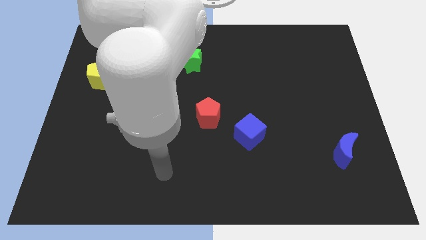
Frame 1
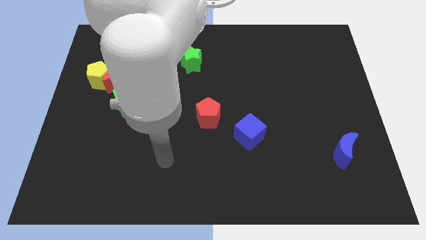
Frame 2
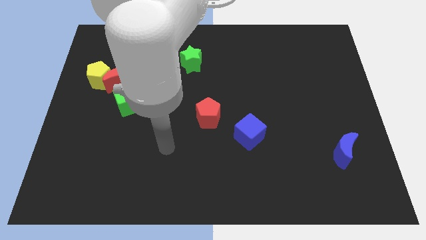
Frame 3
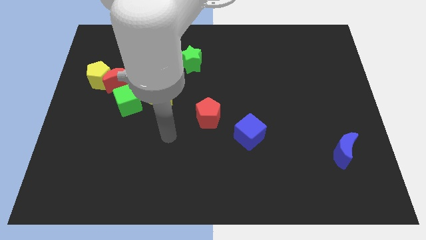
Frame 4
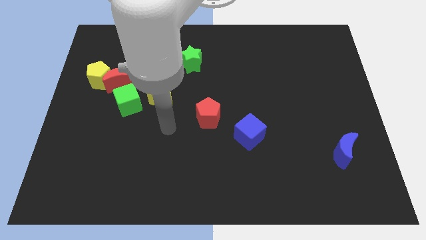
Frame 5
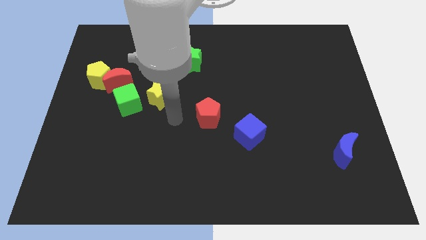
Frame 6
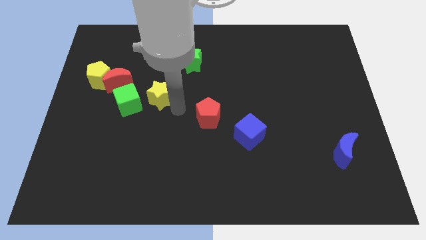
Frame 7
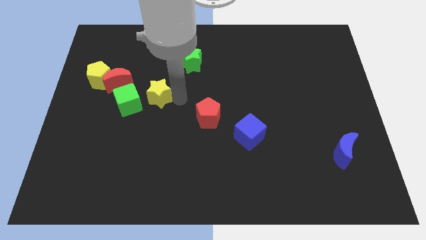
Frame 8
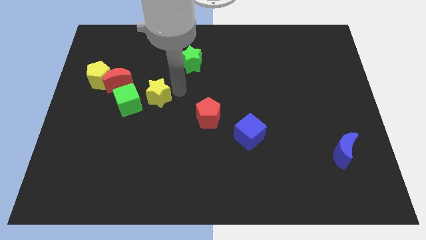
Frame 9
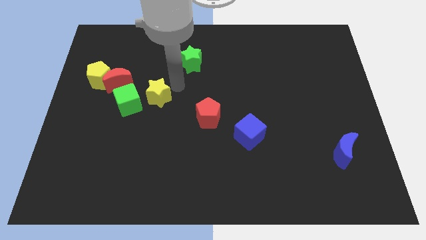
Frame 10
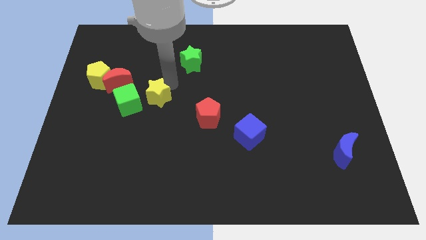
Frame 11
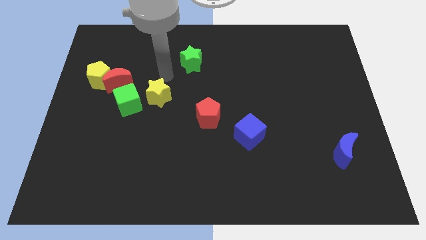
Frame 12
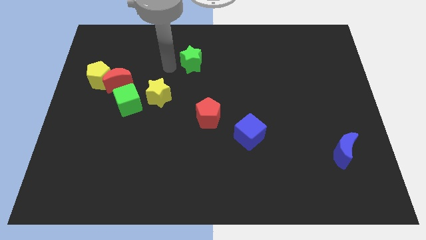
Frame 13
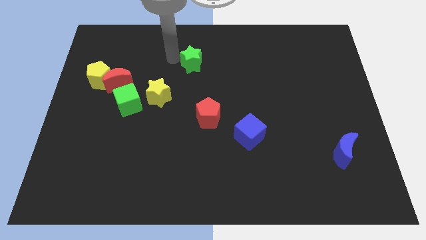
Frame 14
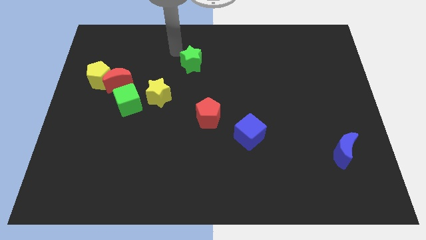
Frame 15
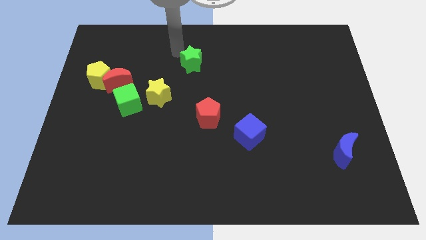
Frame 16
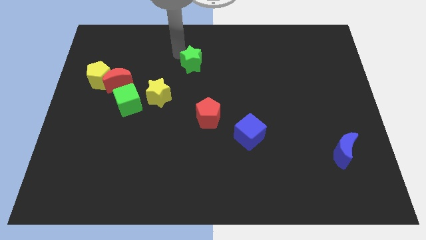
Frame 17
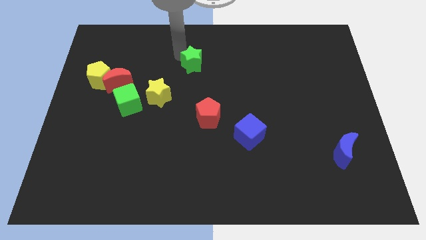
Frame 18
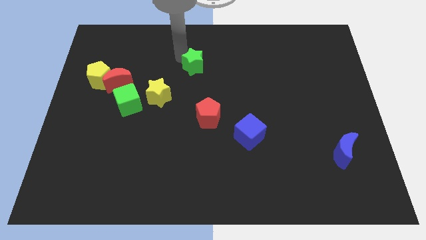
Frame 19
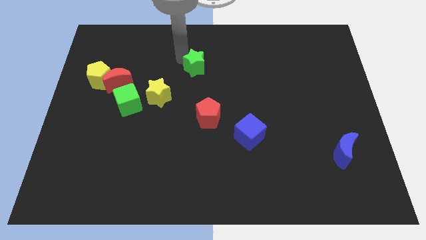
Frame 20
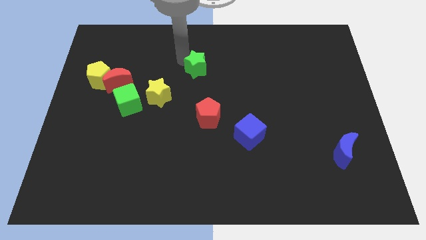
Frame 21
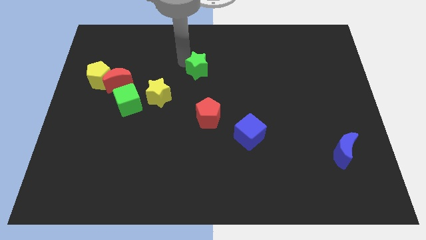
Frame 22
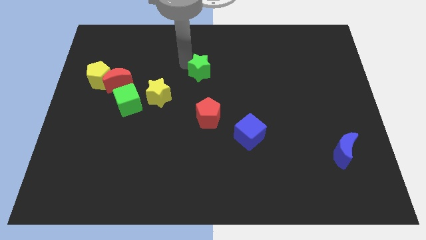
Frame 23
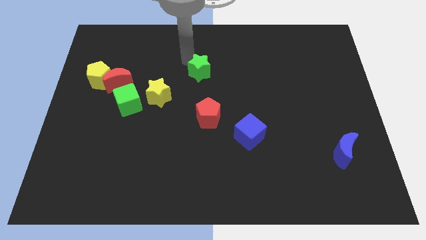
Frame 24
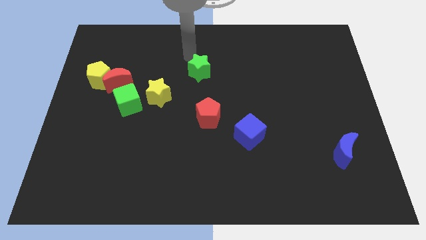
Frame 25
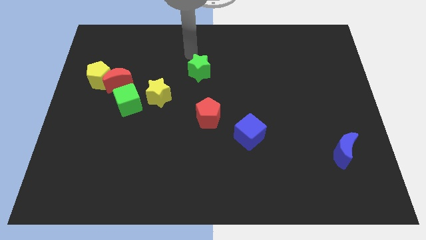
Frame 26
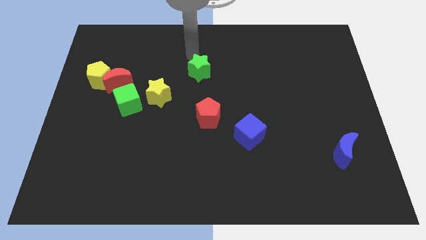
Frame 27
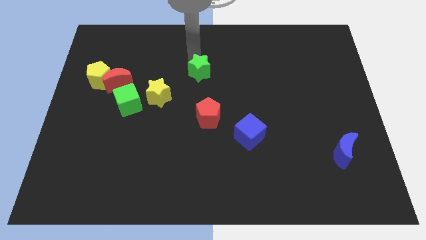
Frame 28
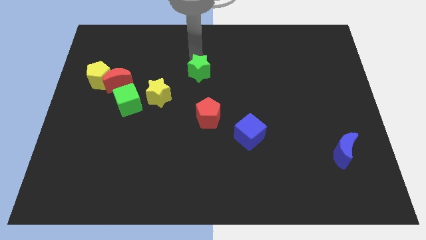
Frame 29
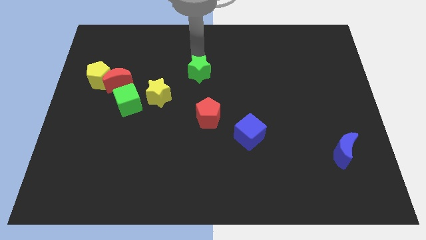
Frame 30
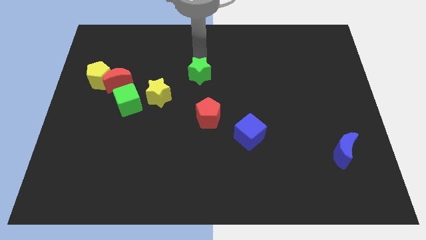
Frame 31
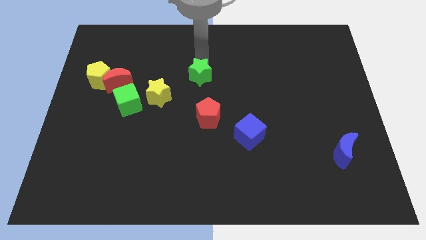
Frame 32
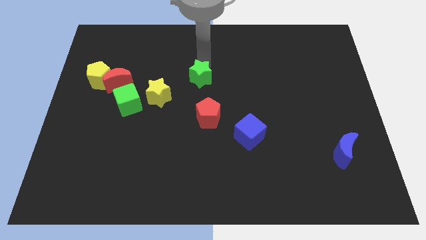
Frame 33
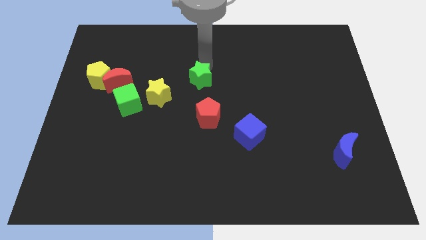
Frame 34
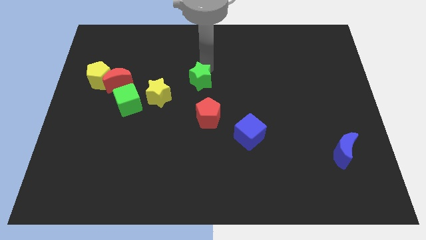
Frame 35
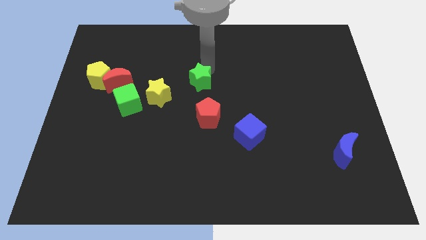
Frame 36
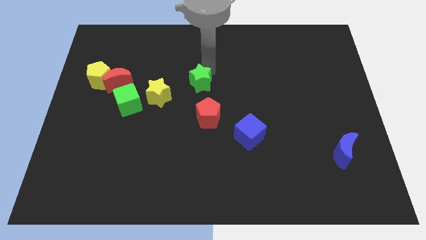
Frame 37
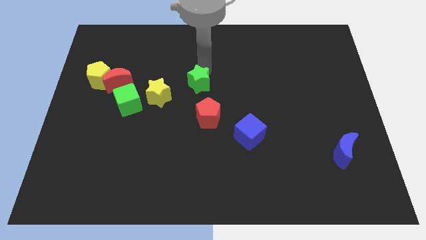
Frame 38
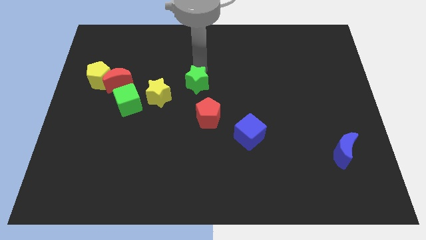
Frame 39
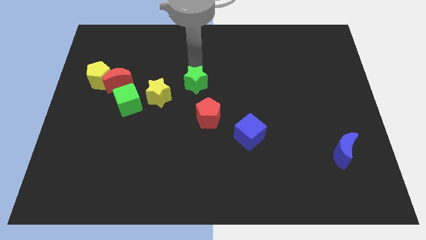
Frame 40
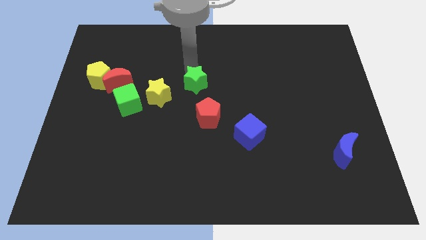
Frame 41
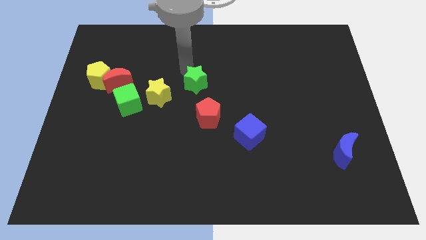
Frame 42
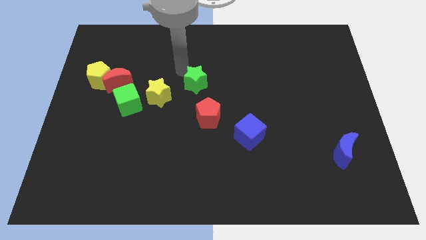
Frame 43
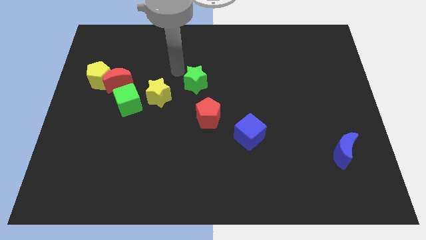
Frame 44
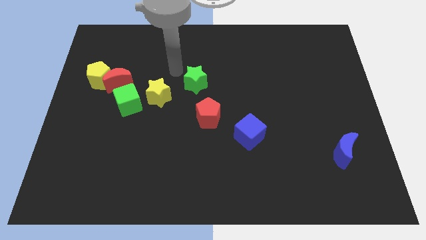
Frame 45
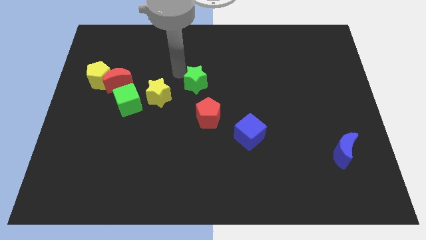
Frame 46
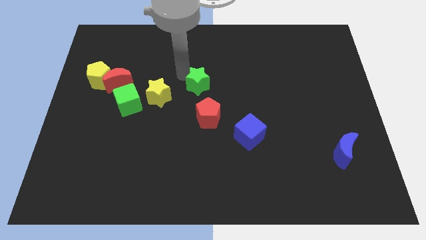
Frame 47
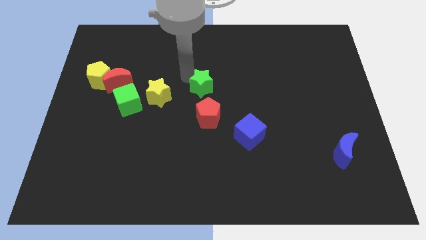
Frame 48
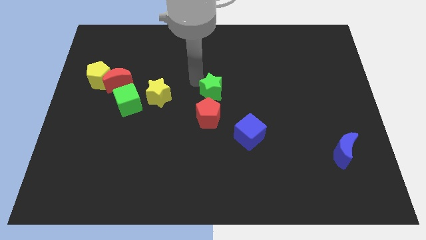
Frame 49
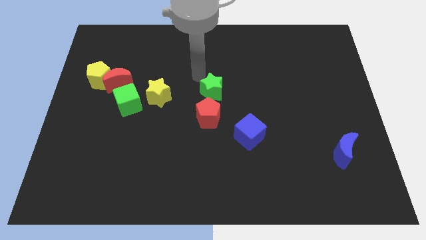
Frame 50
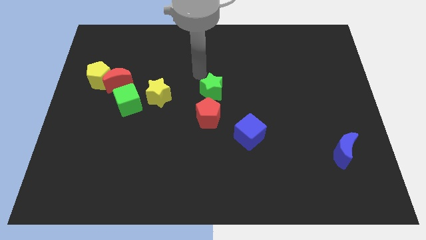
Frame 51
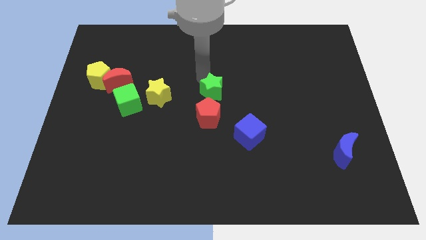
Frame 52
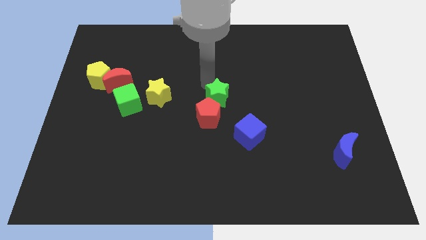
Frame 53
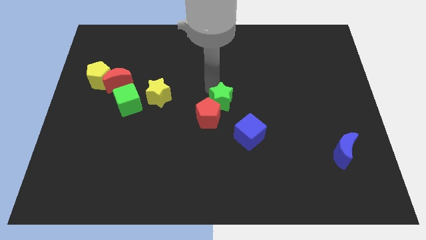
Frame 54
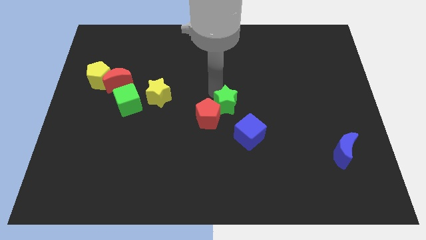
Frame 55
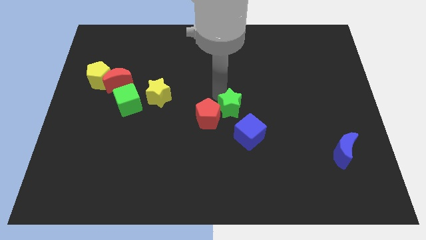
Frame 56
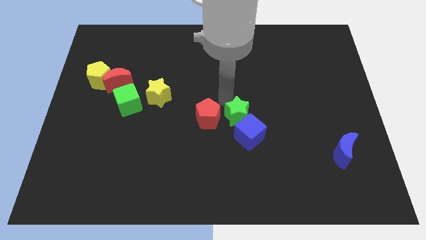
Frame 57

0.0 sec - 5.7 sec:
slide the green star next to the blue cube

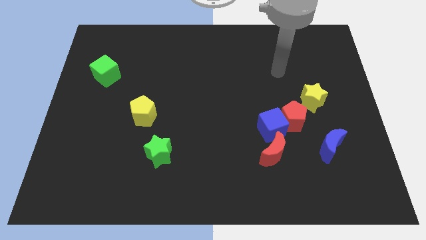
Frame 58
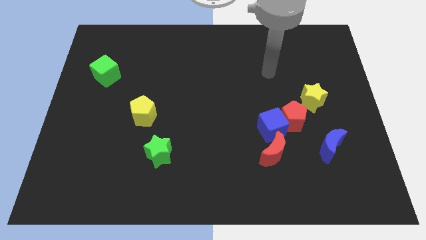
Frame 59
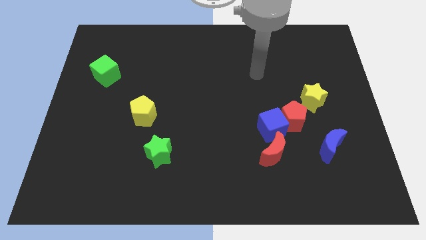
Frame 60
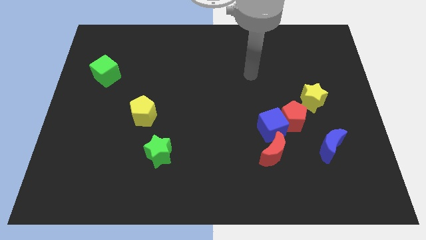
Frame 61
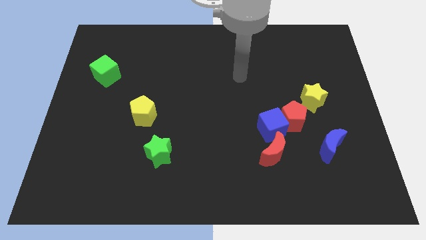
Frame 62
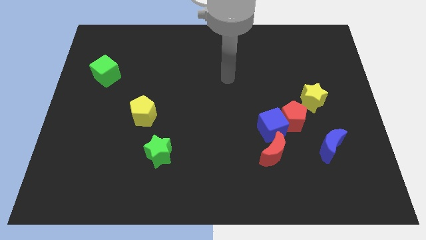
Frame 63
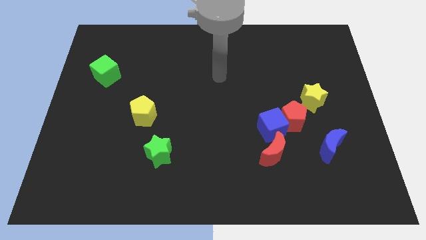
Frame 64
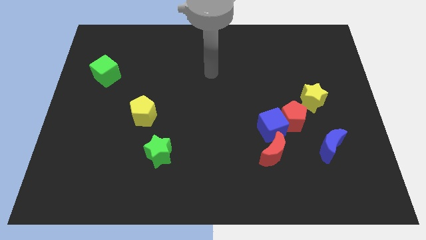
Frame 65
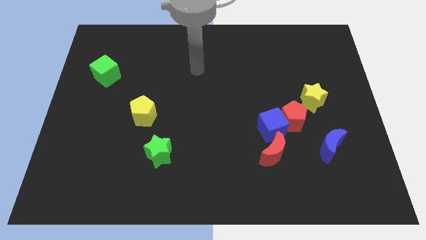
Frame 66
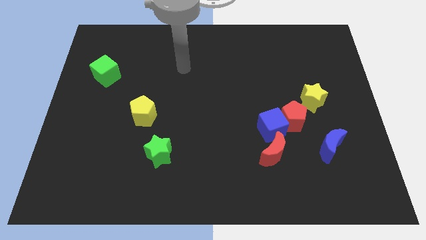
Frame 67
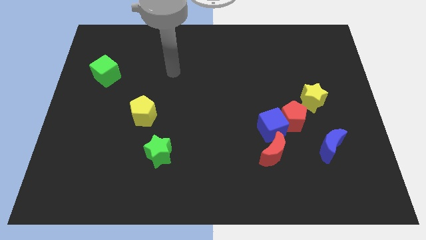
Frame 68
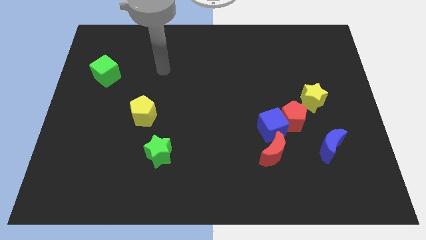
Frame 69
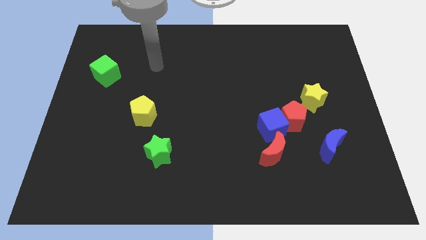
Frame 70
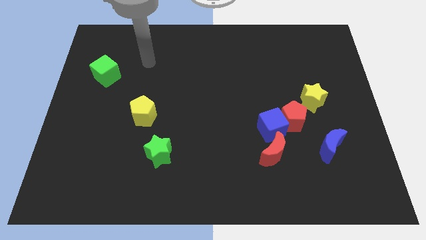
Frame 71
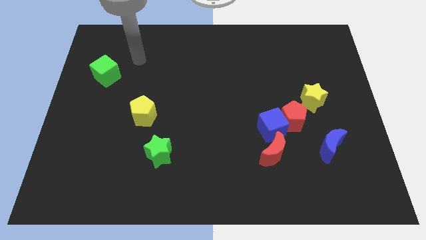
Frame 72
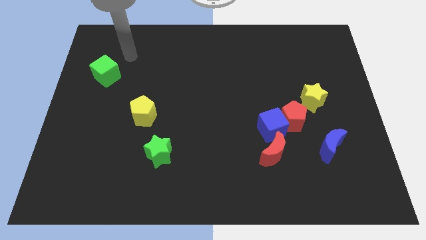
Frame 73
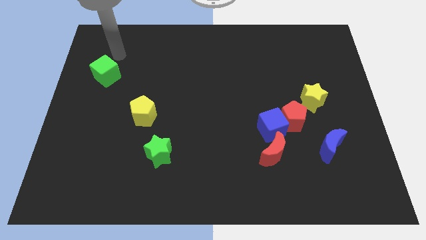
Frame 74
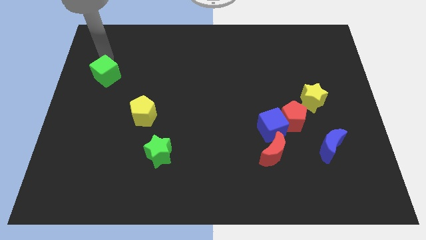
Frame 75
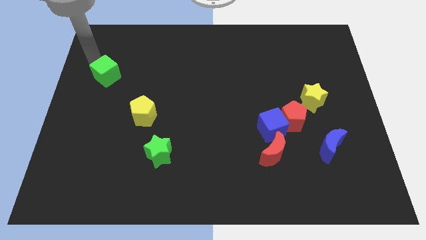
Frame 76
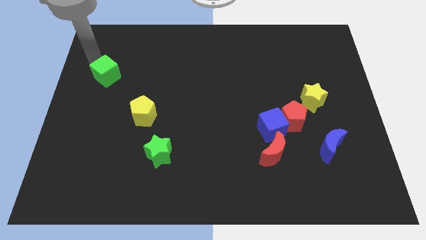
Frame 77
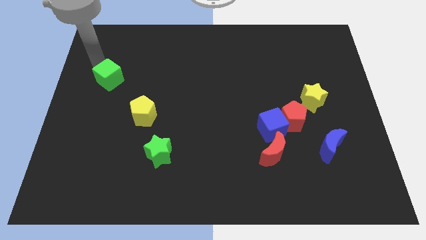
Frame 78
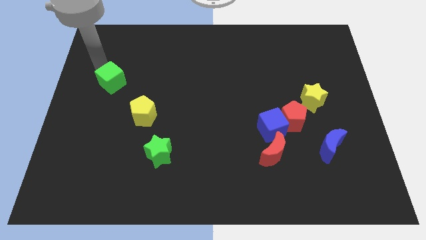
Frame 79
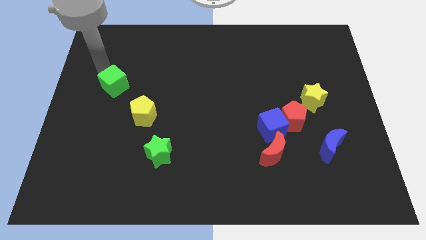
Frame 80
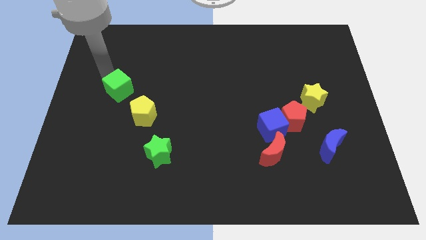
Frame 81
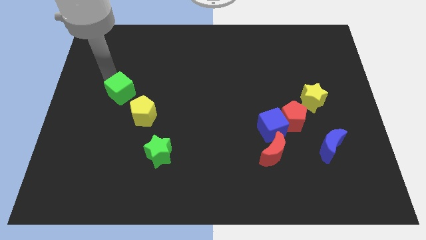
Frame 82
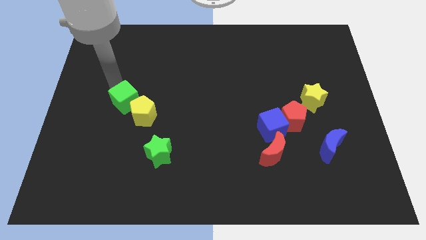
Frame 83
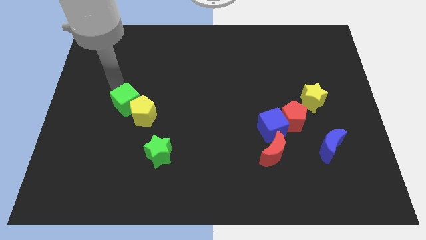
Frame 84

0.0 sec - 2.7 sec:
slide the green cube to the yellow pentagon
